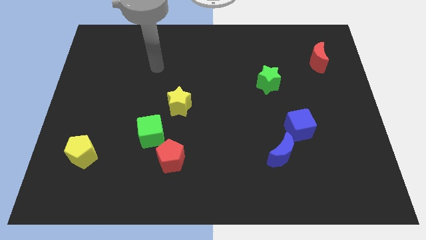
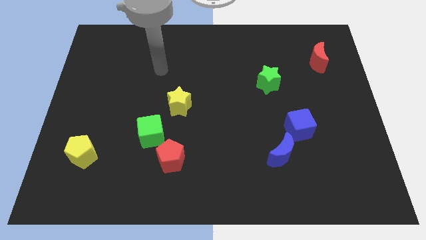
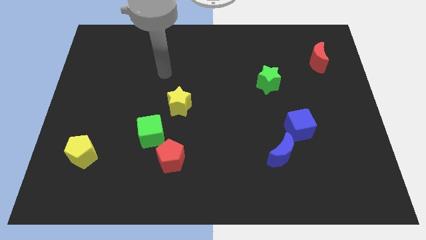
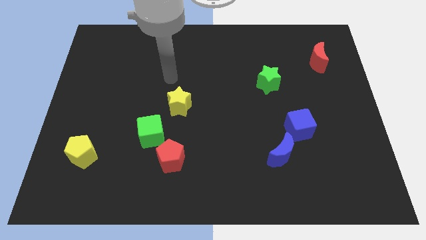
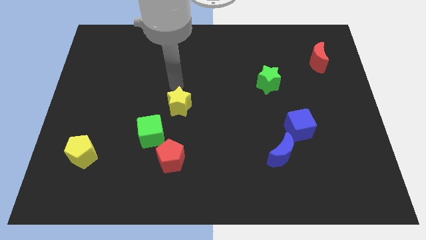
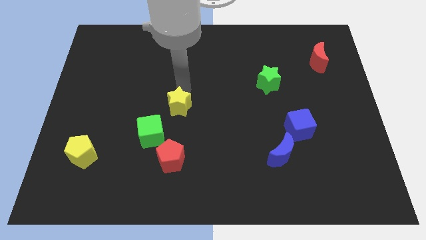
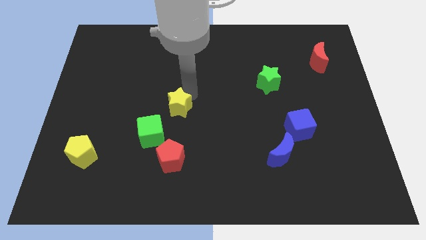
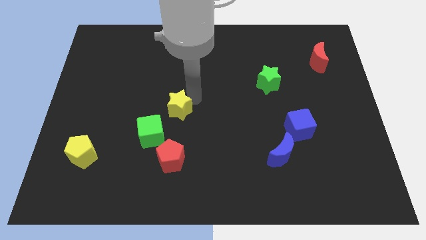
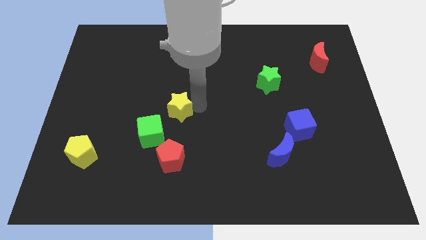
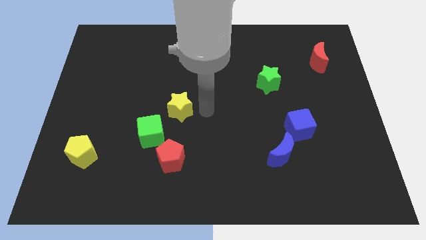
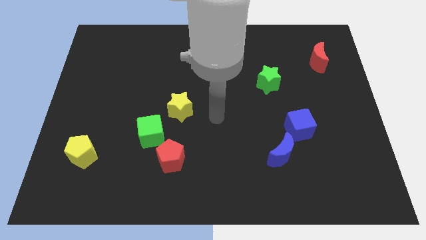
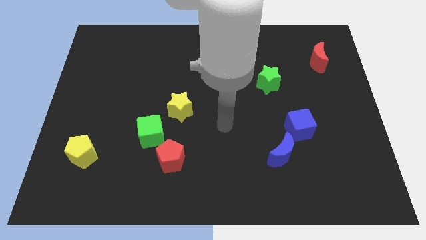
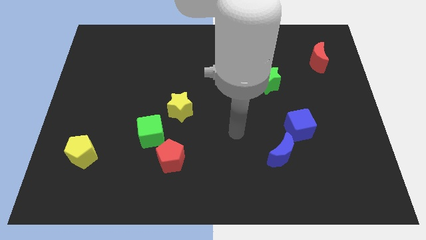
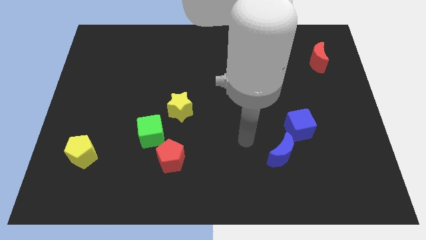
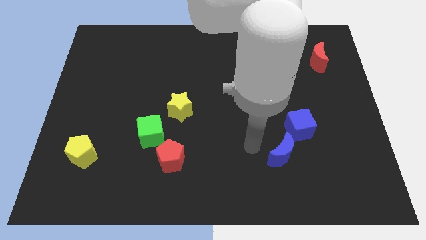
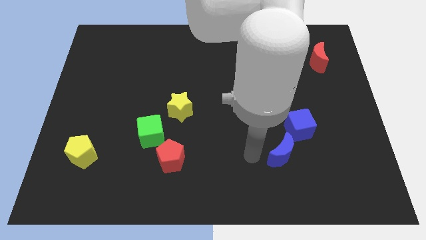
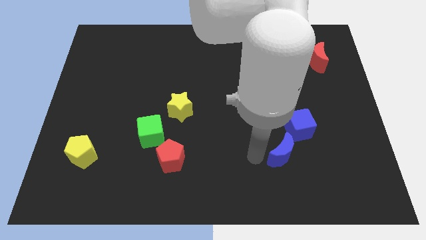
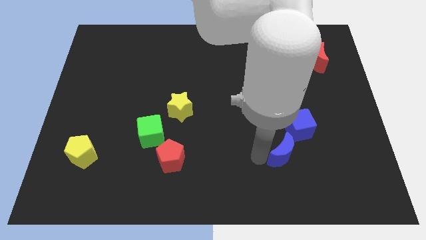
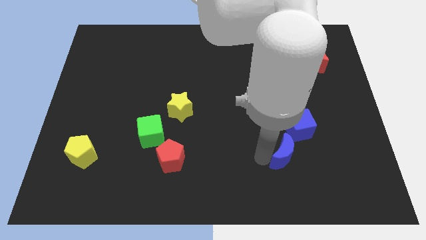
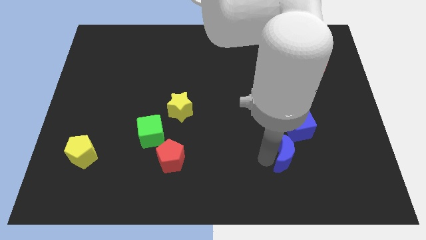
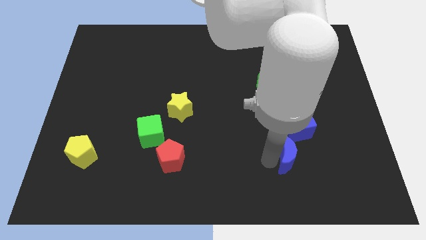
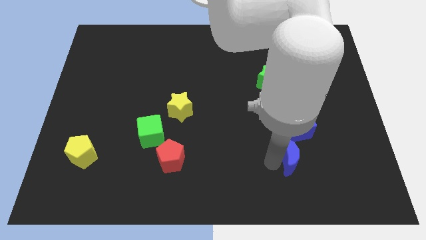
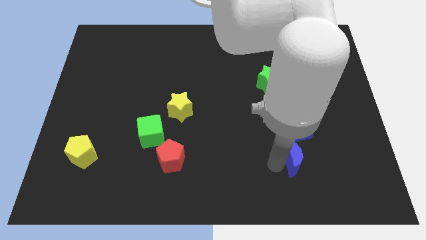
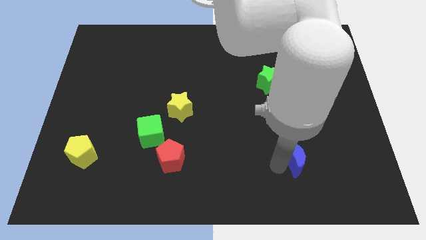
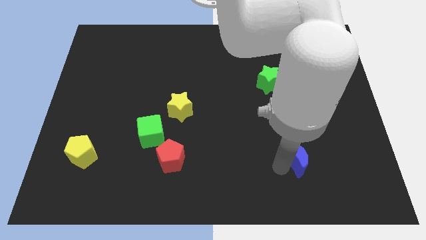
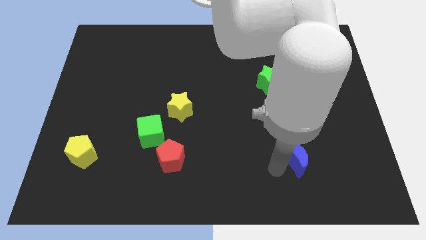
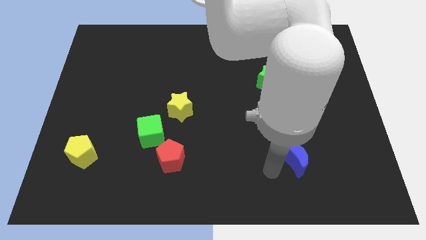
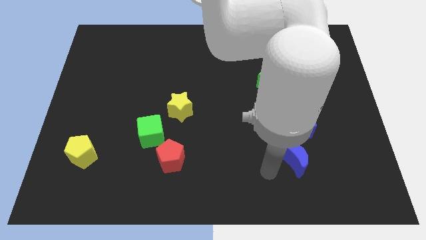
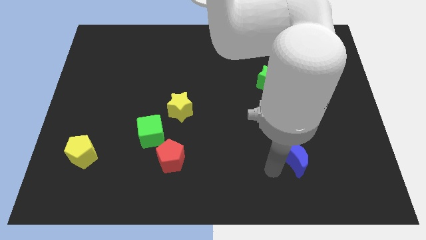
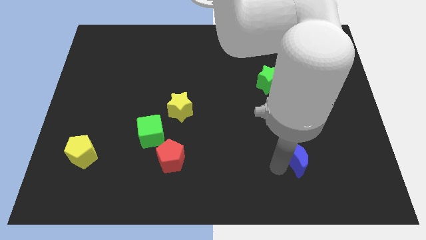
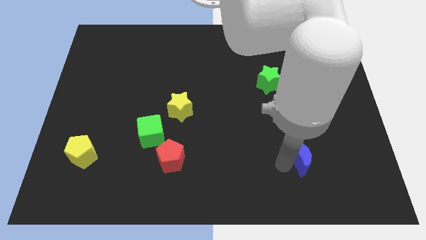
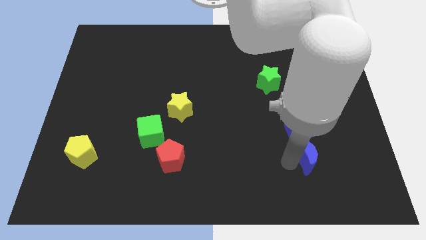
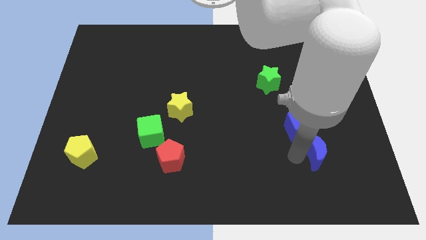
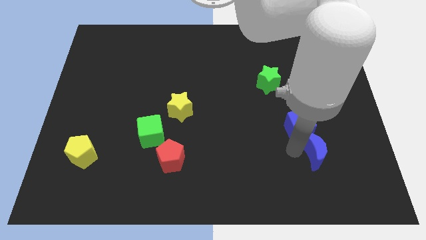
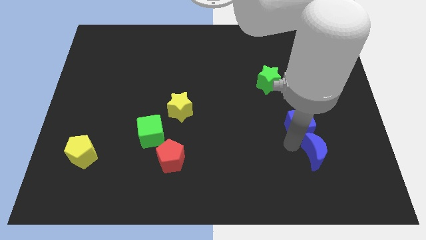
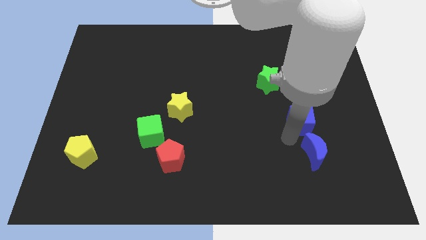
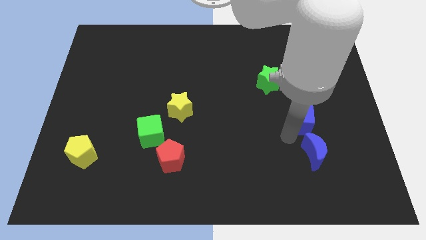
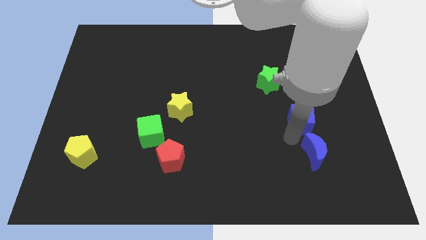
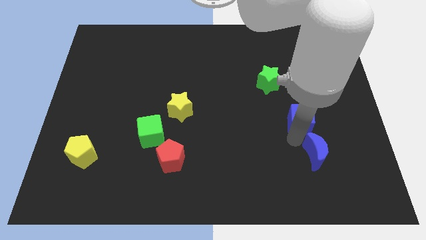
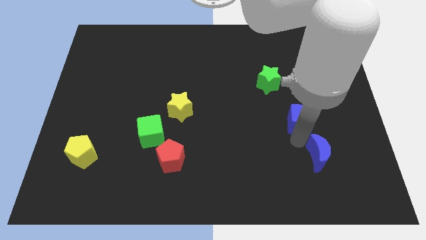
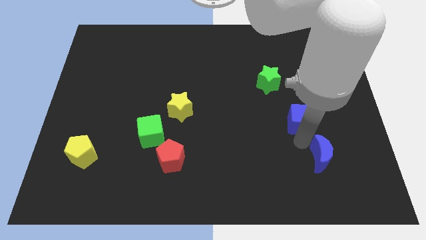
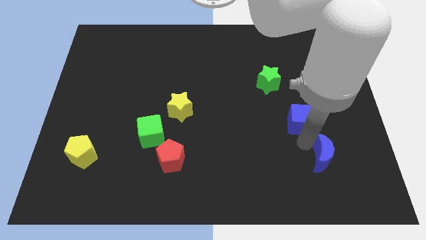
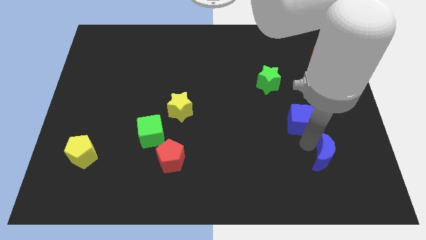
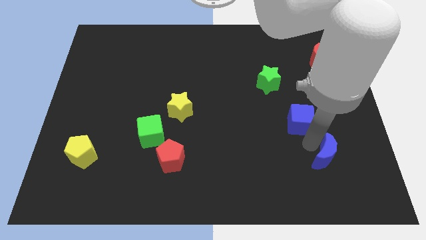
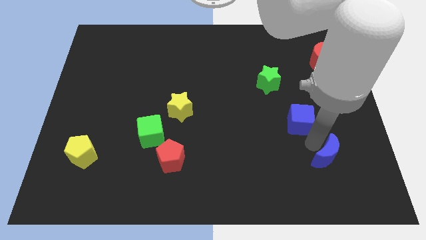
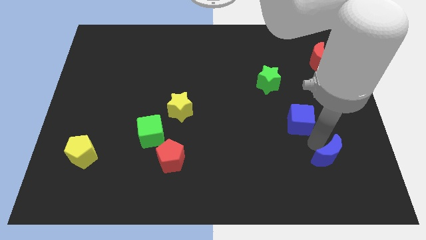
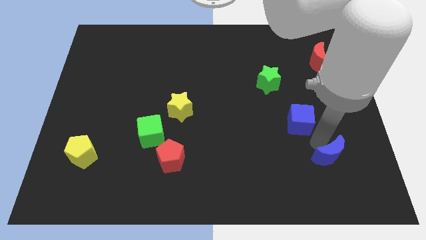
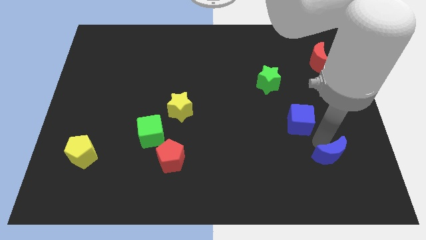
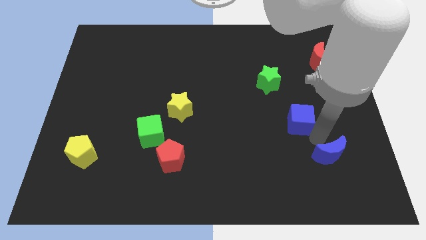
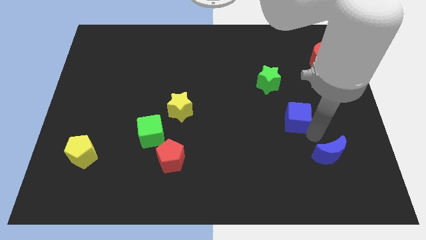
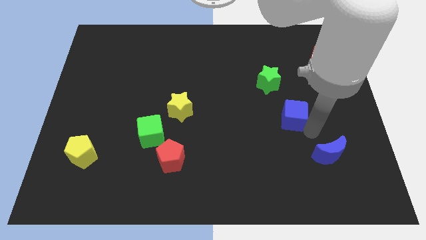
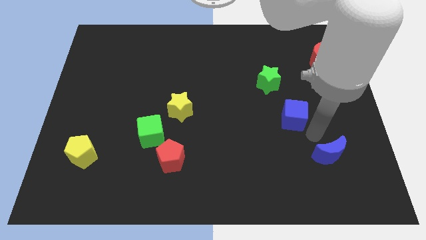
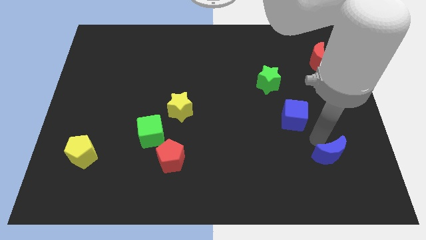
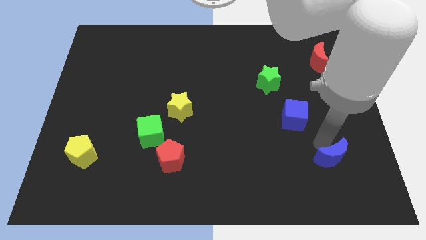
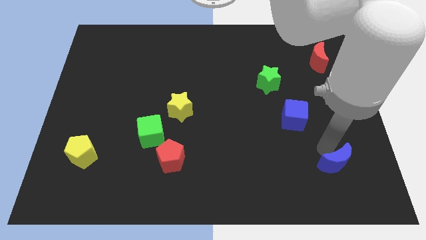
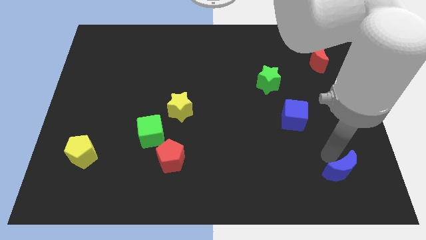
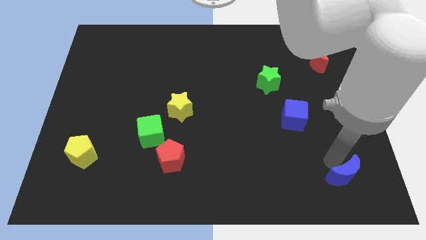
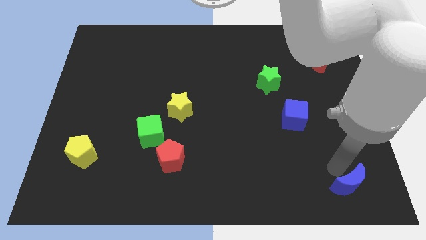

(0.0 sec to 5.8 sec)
push the blue moon to the bottom right

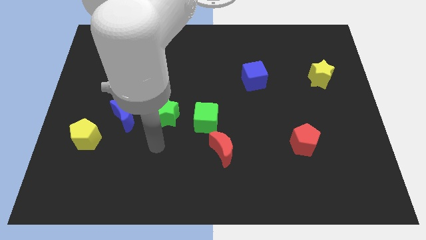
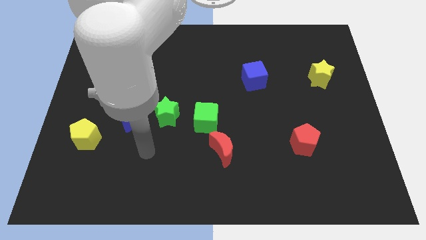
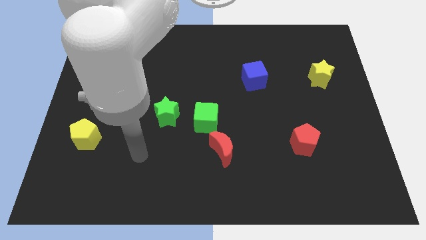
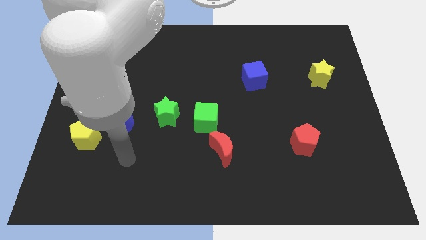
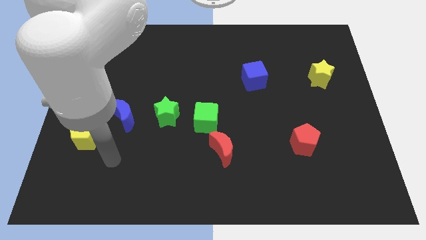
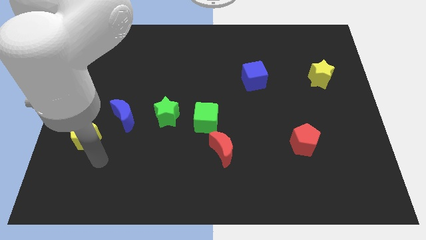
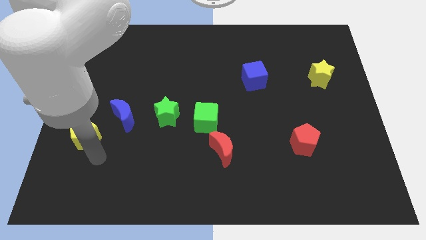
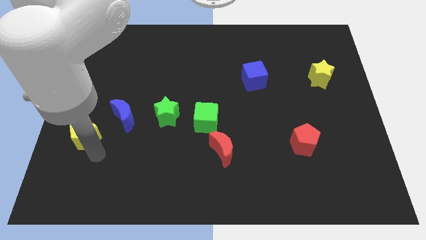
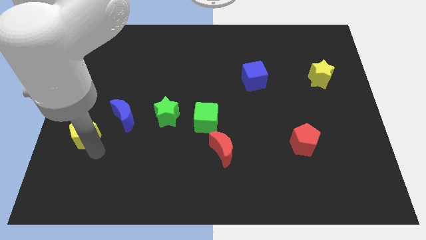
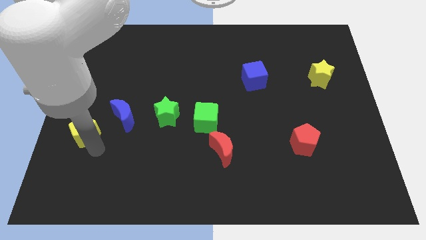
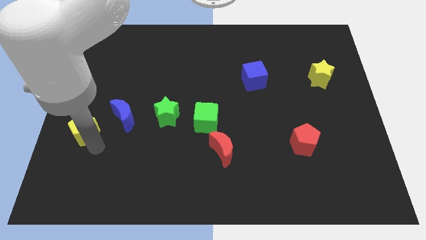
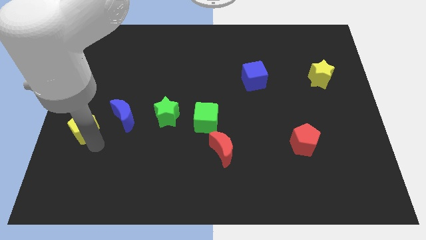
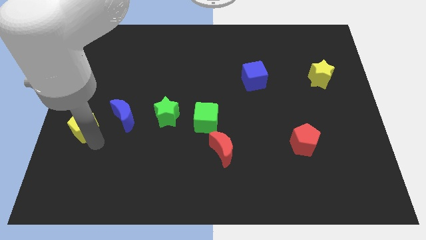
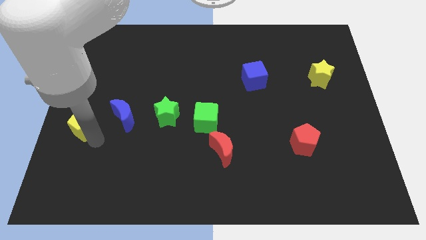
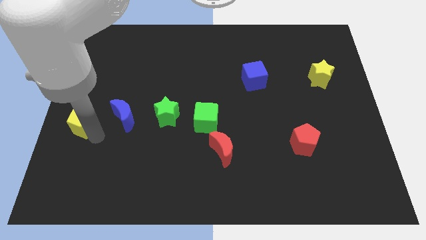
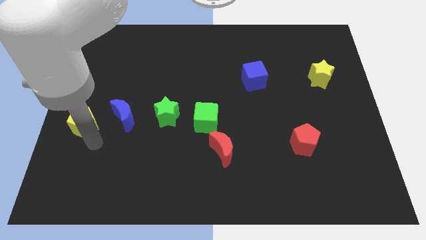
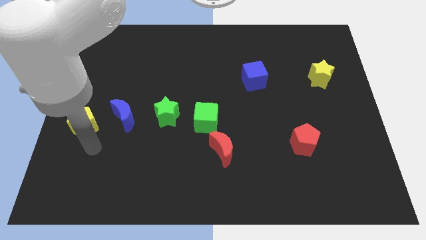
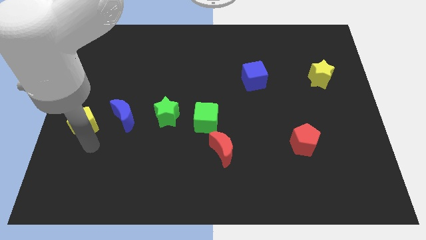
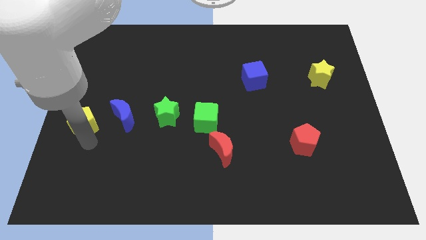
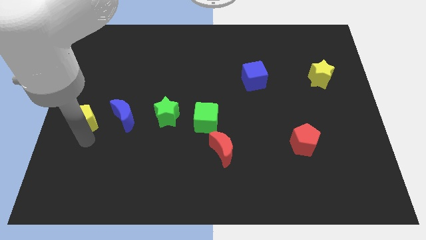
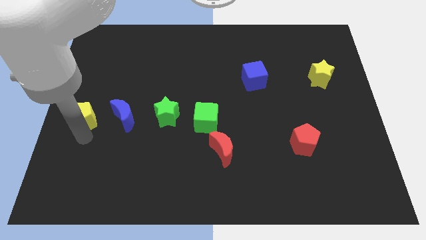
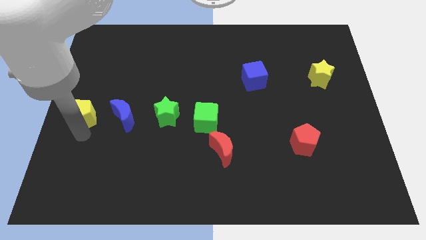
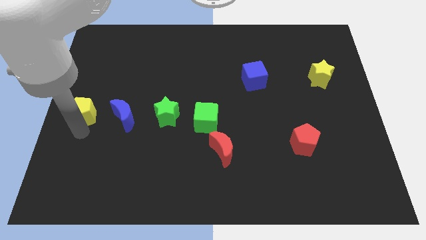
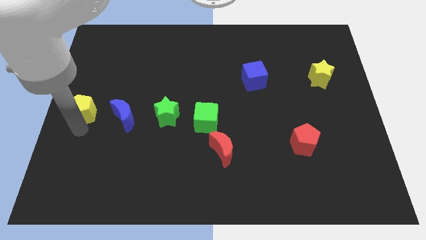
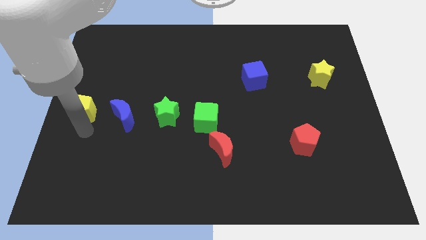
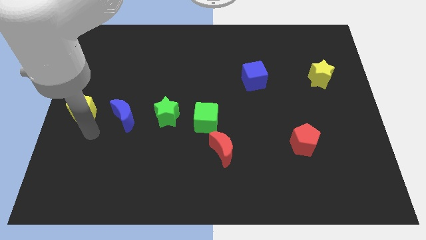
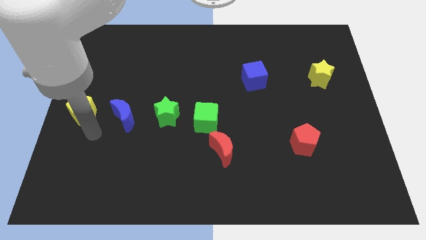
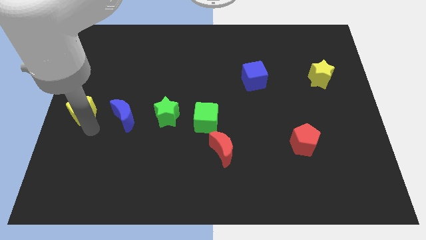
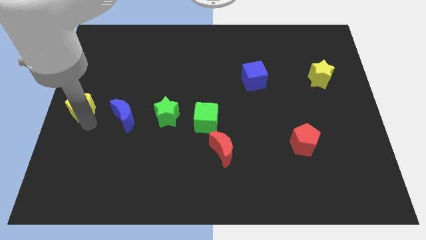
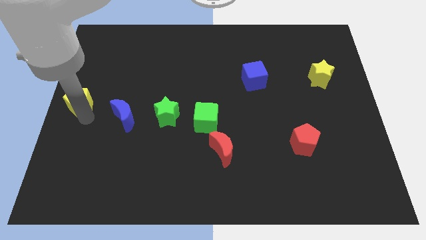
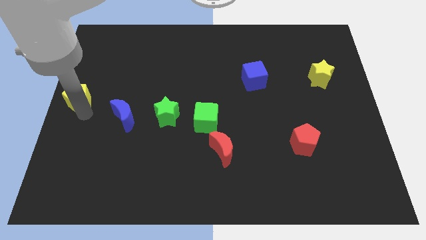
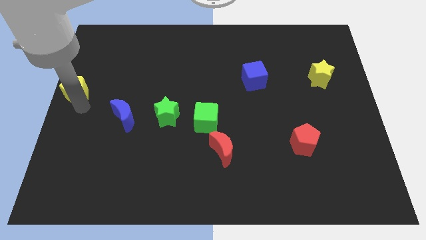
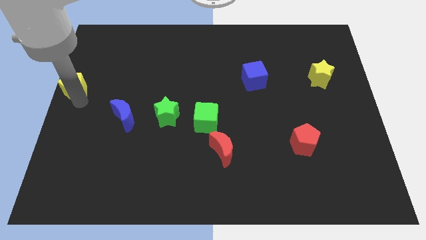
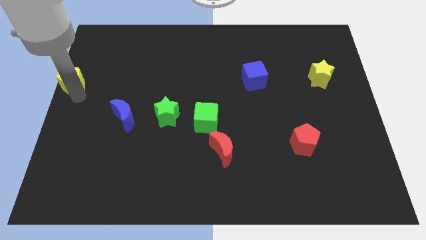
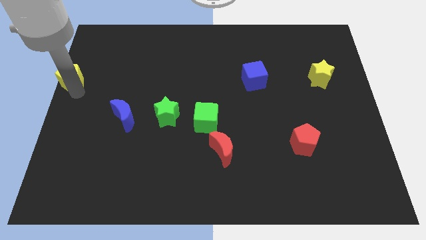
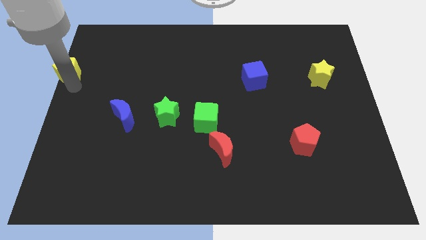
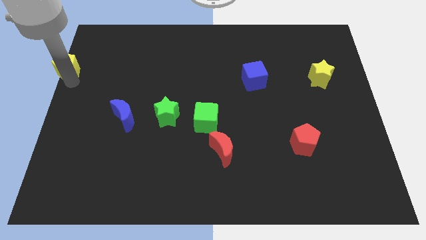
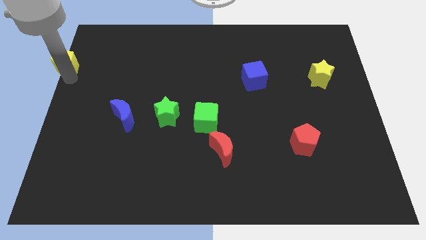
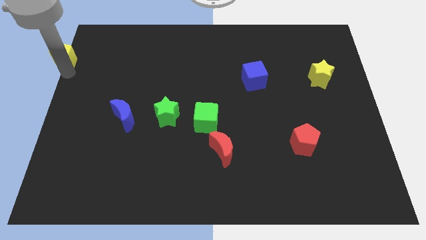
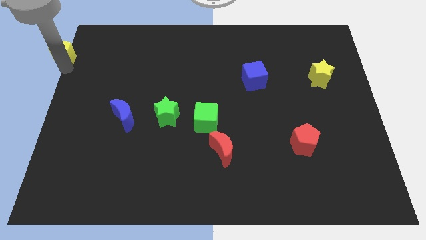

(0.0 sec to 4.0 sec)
slide the yellow pentagon to the top left of the board
